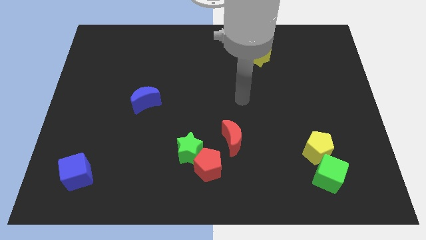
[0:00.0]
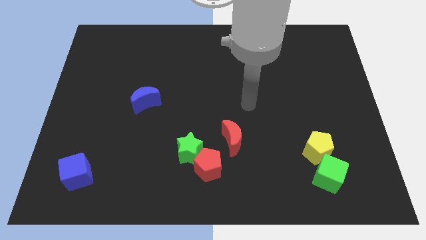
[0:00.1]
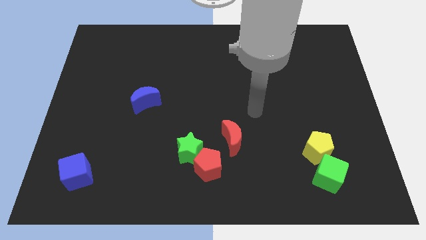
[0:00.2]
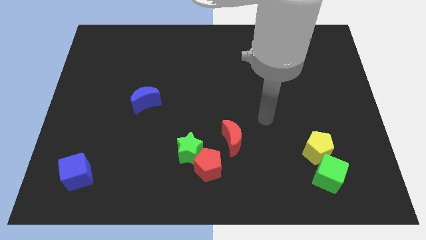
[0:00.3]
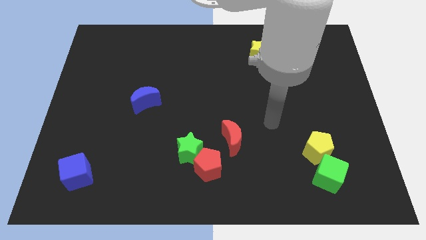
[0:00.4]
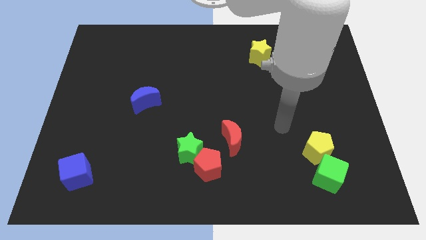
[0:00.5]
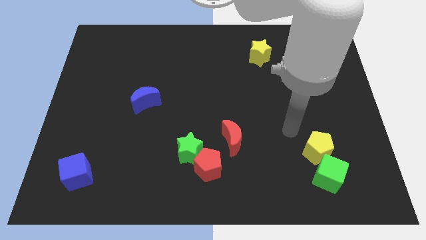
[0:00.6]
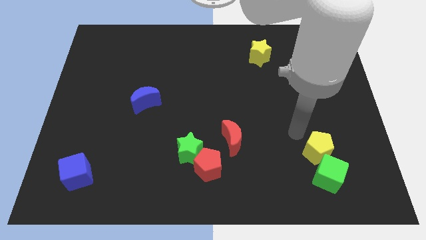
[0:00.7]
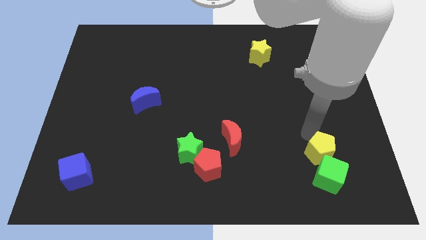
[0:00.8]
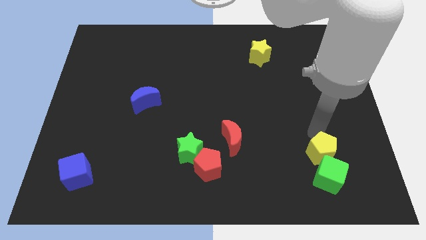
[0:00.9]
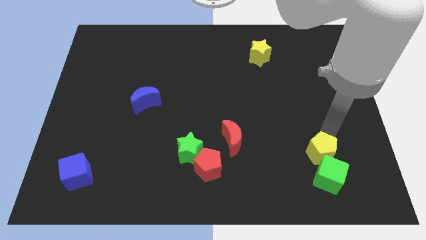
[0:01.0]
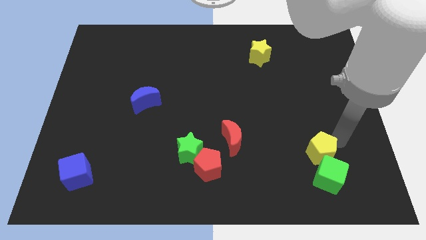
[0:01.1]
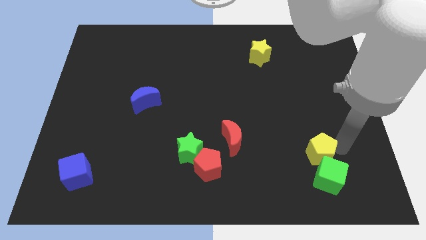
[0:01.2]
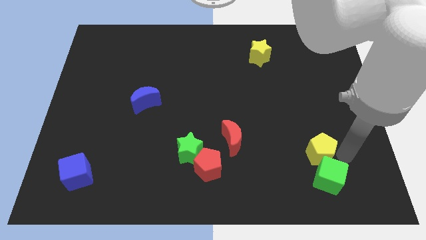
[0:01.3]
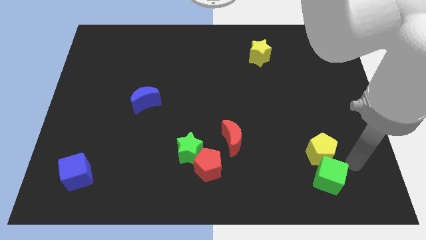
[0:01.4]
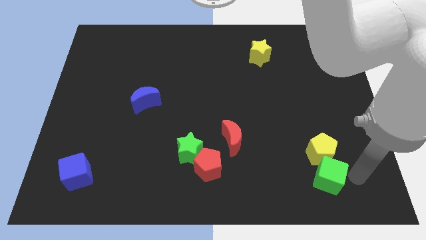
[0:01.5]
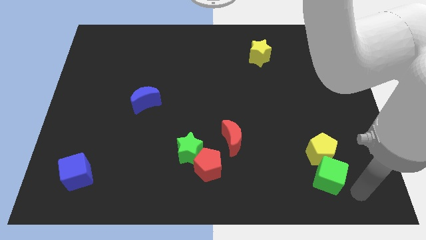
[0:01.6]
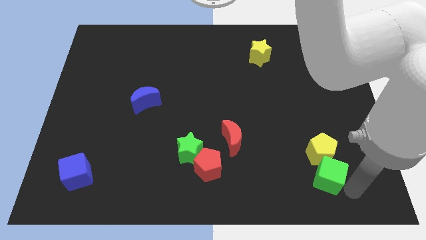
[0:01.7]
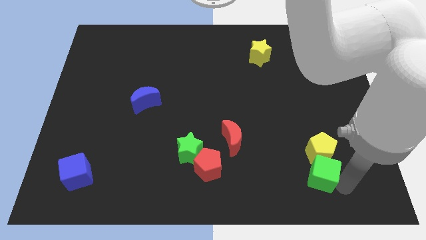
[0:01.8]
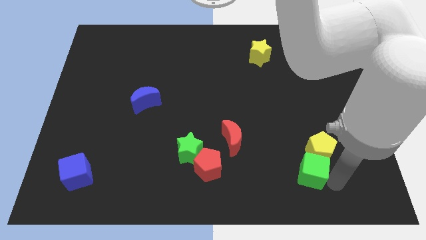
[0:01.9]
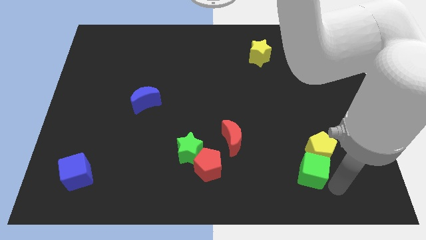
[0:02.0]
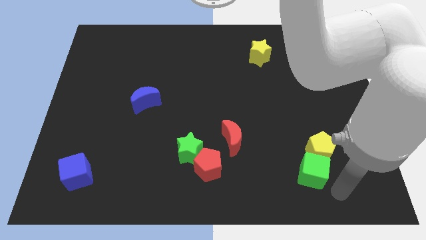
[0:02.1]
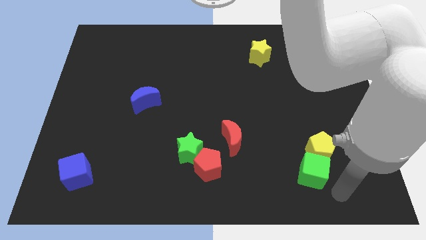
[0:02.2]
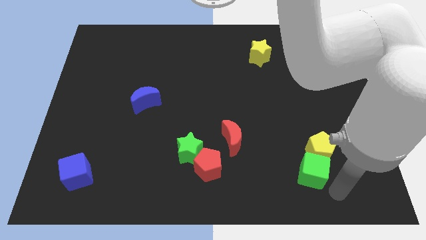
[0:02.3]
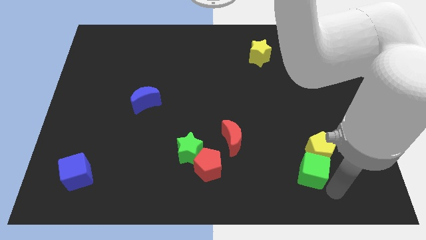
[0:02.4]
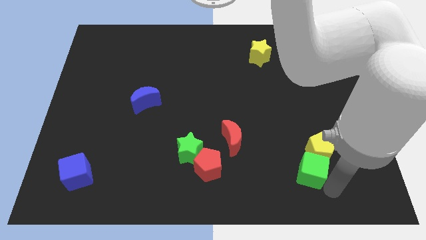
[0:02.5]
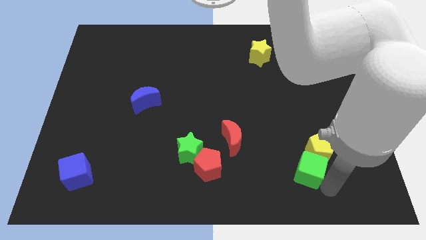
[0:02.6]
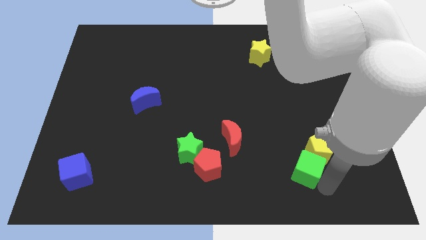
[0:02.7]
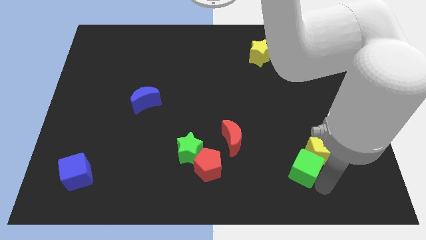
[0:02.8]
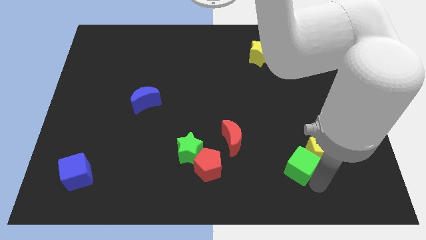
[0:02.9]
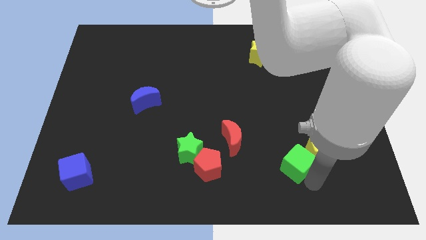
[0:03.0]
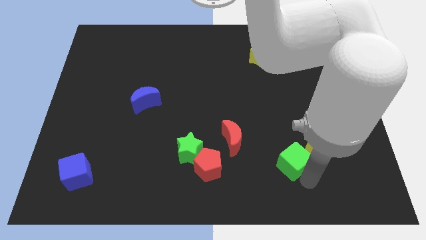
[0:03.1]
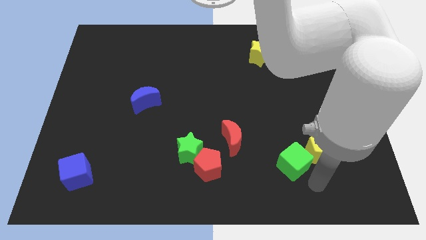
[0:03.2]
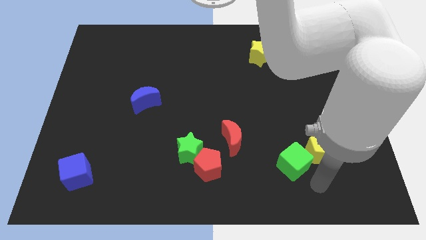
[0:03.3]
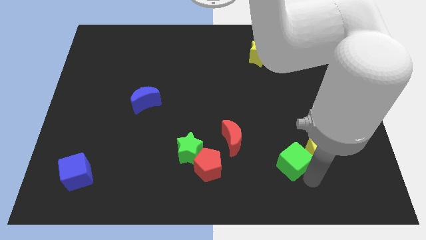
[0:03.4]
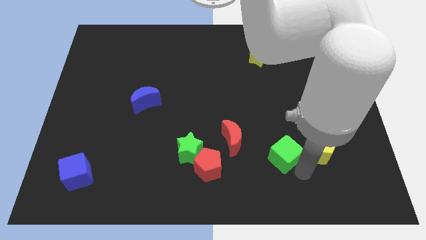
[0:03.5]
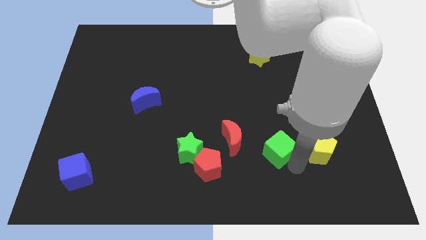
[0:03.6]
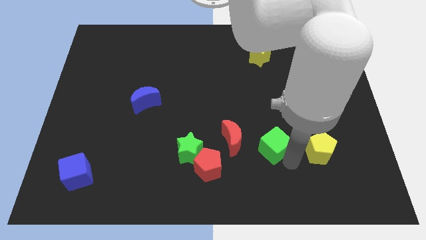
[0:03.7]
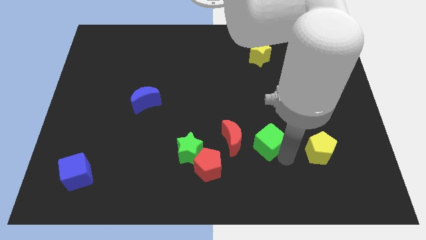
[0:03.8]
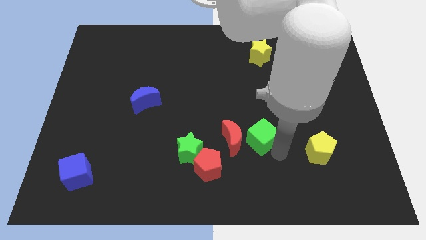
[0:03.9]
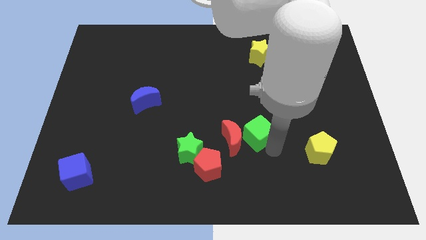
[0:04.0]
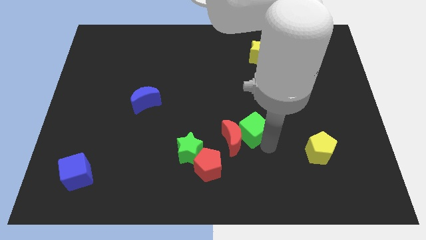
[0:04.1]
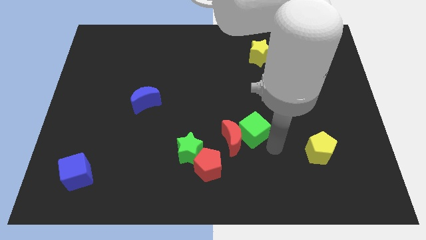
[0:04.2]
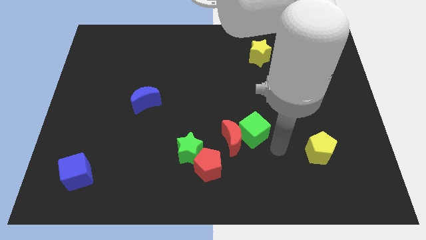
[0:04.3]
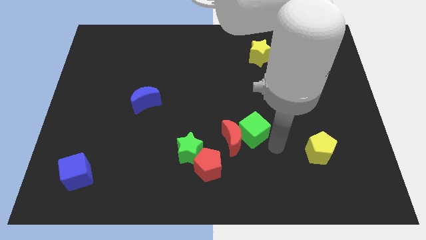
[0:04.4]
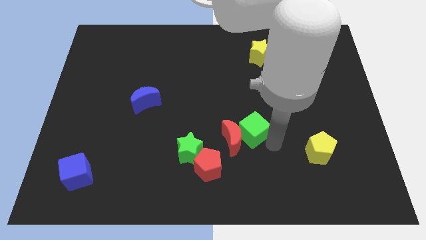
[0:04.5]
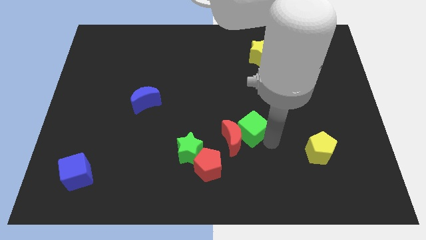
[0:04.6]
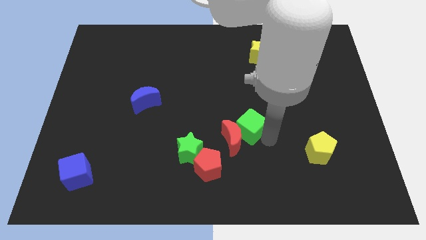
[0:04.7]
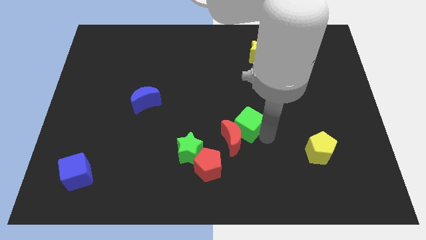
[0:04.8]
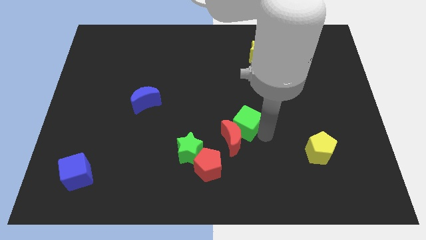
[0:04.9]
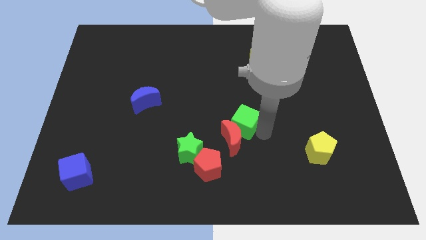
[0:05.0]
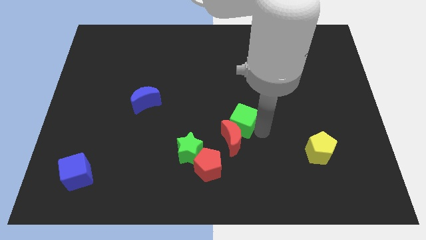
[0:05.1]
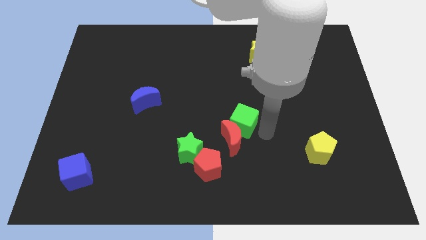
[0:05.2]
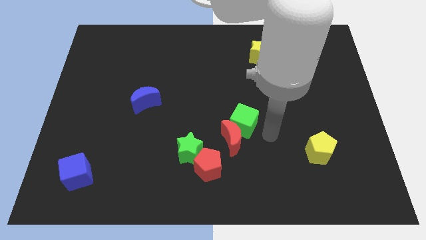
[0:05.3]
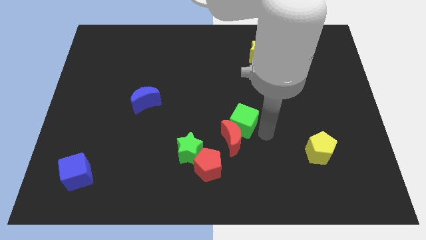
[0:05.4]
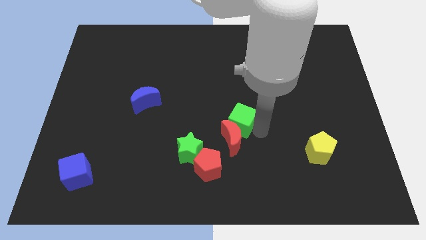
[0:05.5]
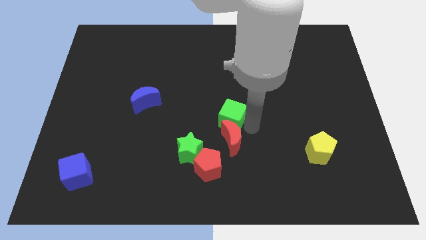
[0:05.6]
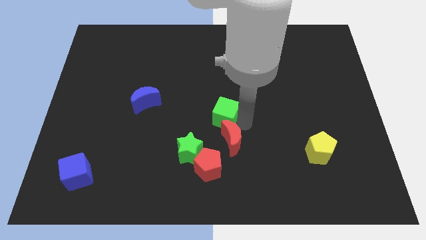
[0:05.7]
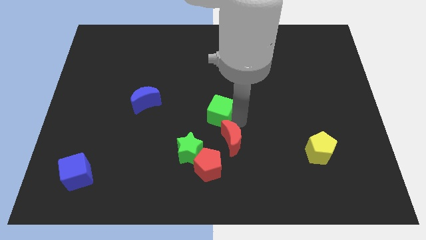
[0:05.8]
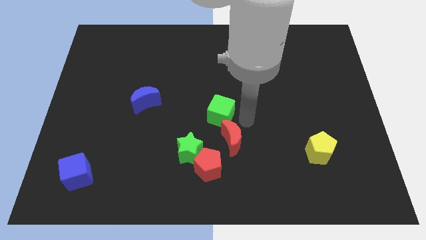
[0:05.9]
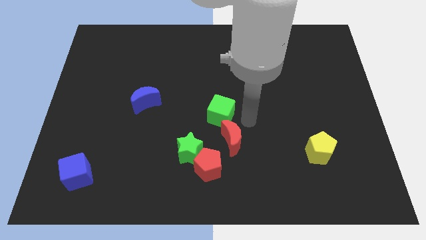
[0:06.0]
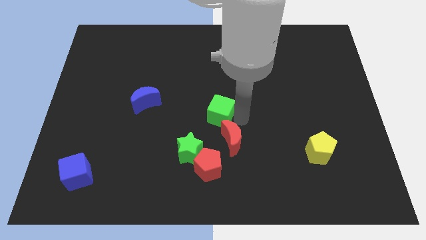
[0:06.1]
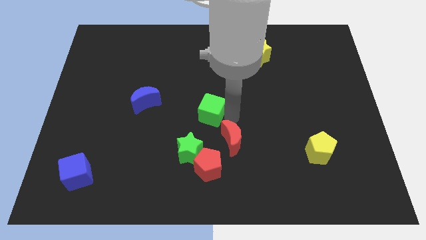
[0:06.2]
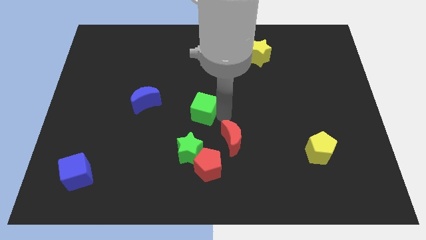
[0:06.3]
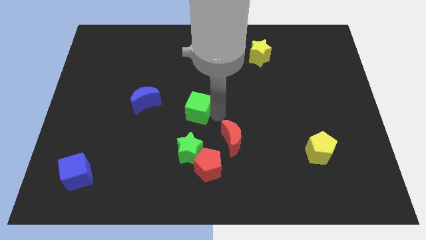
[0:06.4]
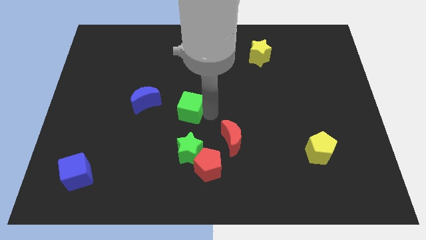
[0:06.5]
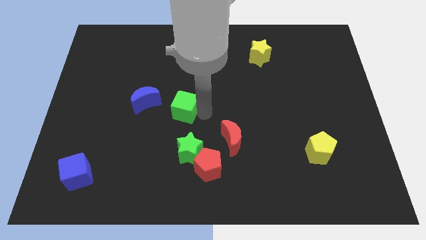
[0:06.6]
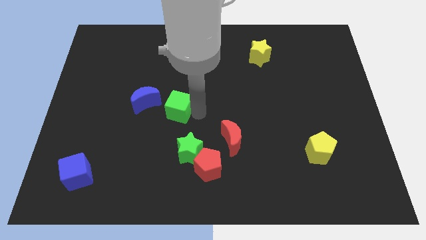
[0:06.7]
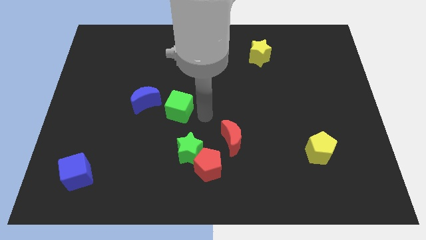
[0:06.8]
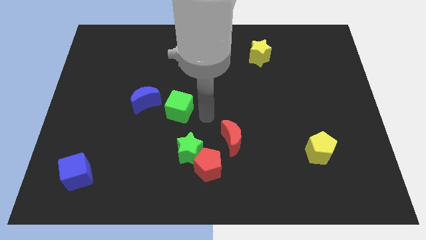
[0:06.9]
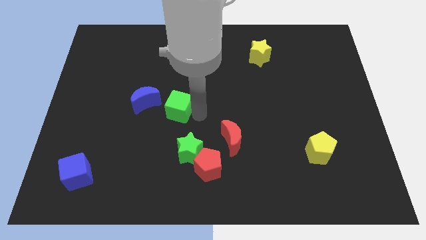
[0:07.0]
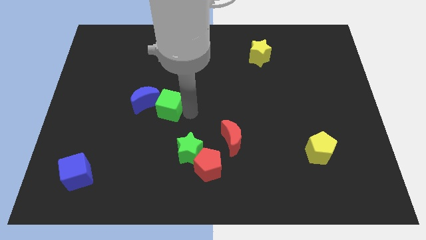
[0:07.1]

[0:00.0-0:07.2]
put the green cube close to the blue moon
